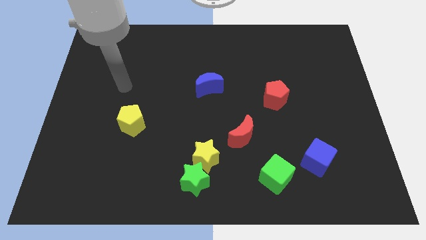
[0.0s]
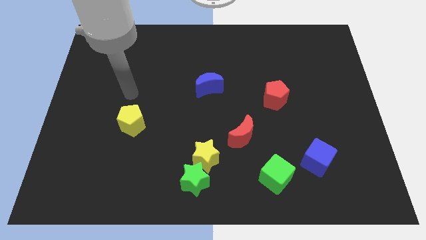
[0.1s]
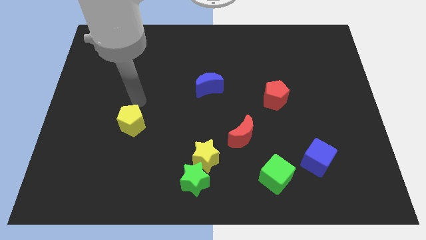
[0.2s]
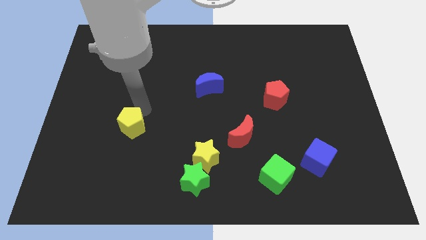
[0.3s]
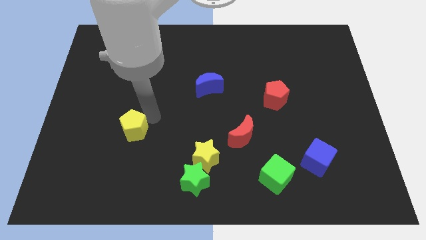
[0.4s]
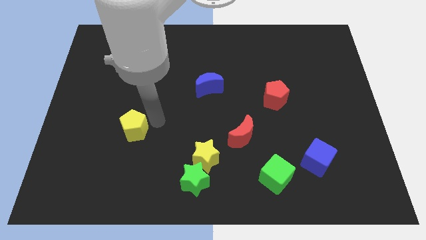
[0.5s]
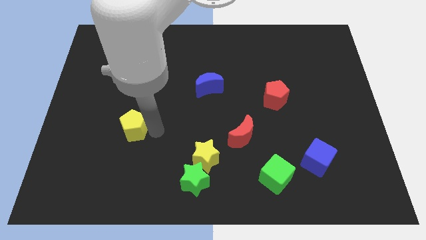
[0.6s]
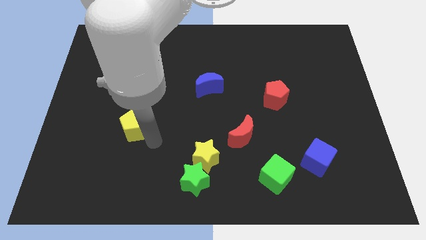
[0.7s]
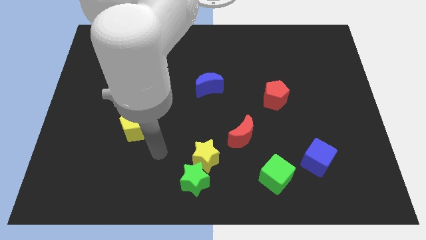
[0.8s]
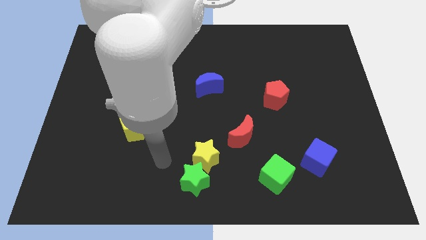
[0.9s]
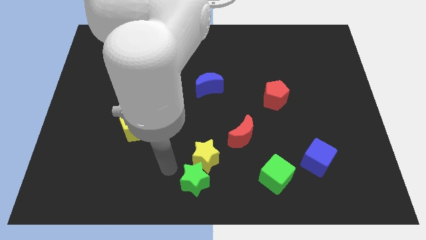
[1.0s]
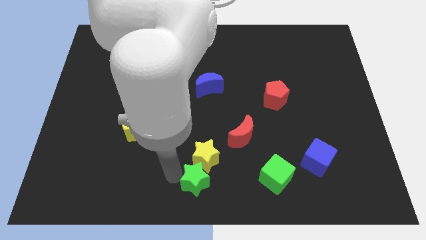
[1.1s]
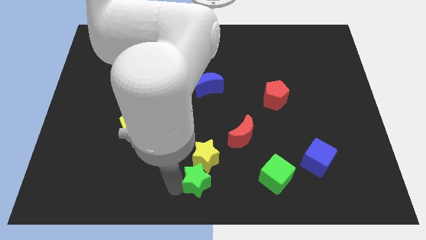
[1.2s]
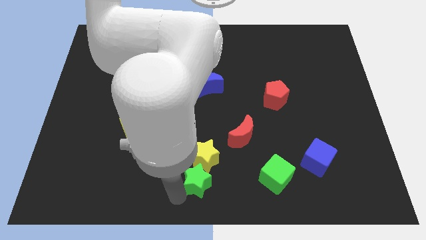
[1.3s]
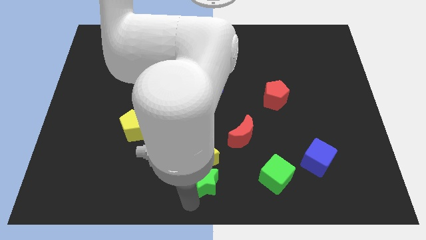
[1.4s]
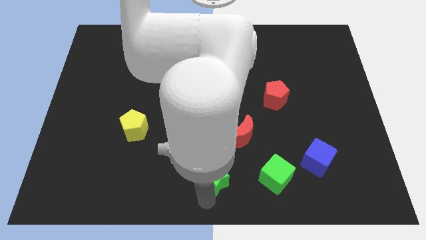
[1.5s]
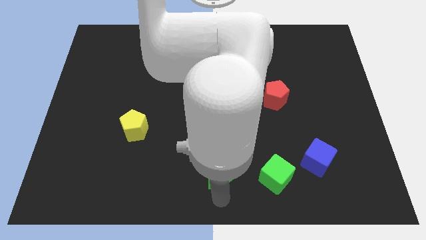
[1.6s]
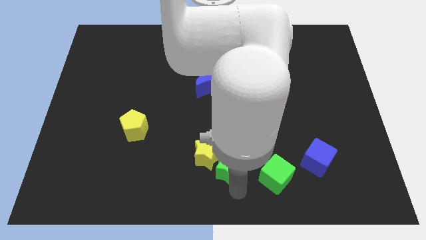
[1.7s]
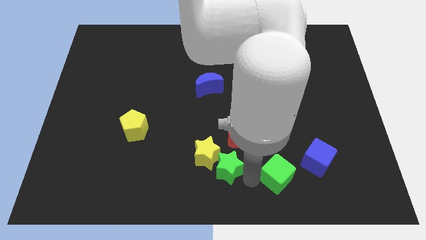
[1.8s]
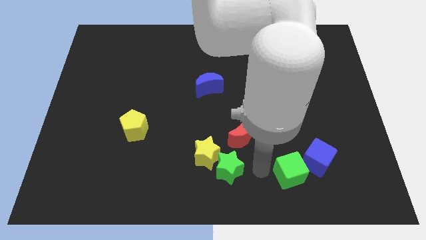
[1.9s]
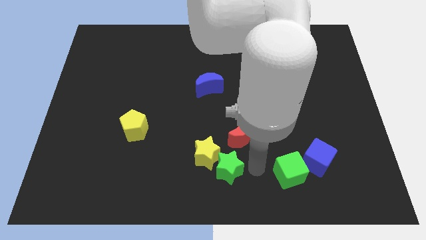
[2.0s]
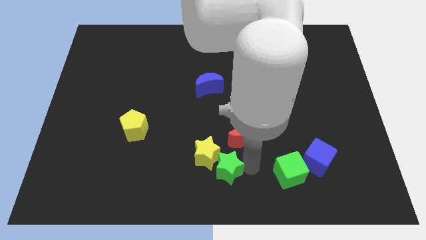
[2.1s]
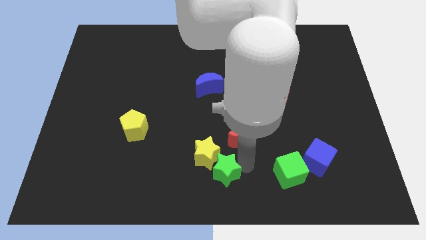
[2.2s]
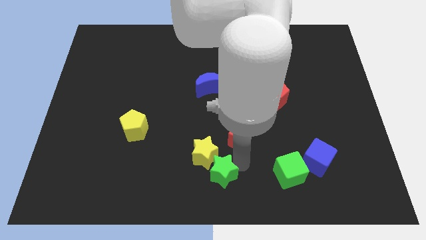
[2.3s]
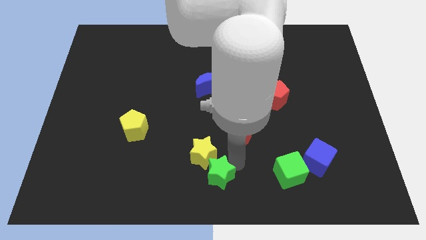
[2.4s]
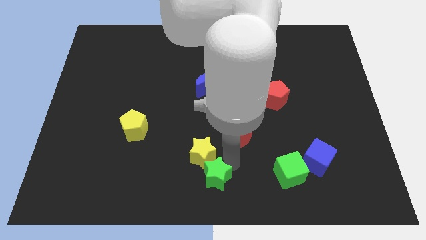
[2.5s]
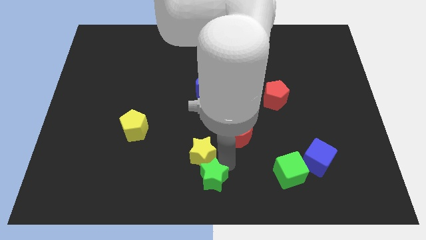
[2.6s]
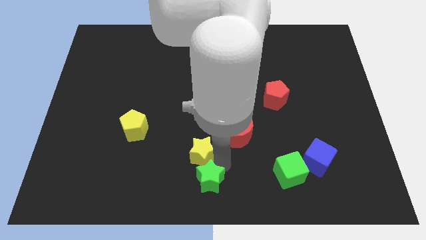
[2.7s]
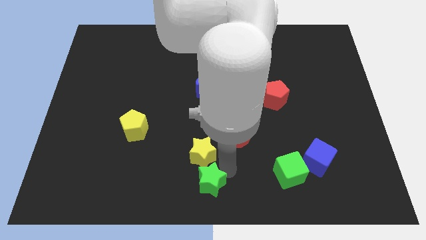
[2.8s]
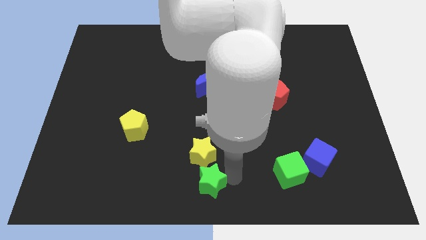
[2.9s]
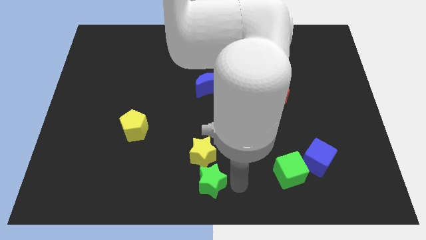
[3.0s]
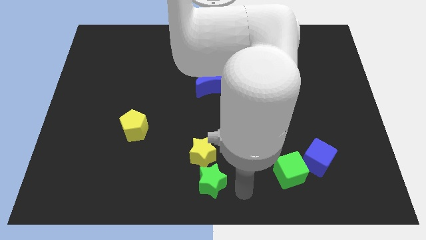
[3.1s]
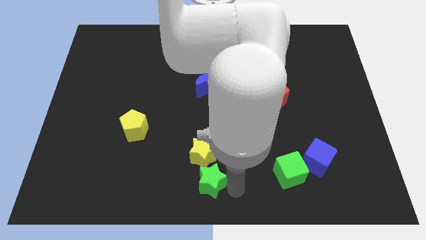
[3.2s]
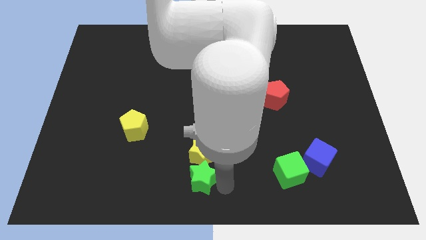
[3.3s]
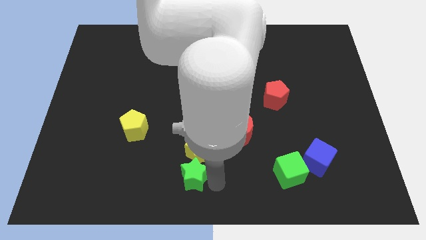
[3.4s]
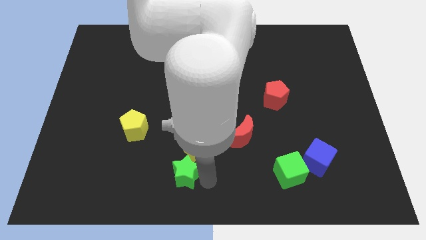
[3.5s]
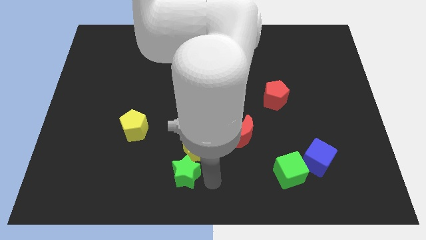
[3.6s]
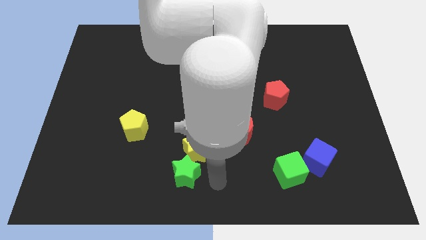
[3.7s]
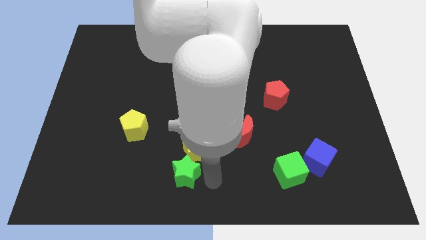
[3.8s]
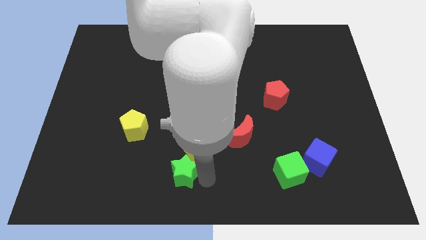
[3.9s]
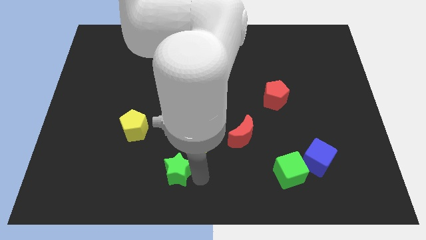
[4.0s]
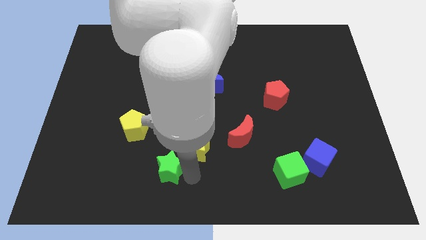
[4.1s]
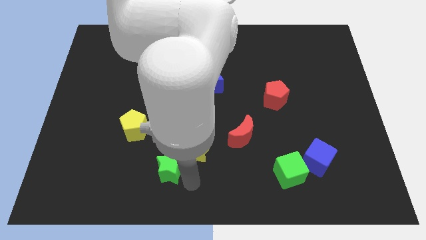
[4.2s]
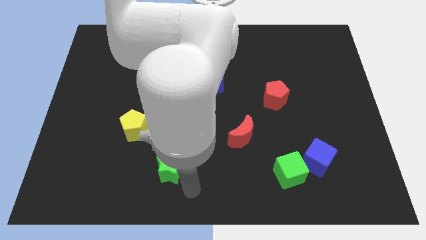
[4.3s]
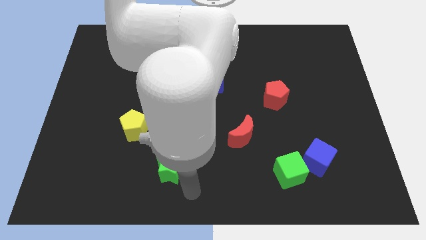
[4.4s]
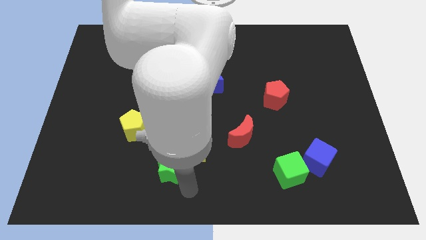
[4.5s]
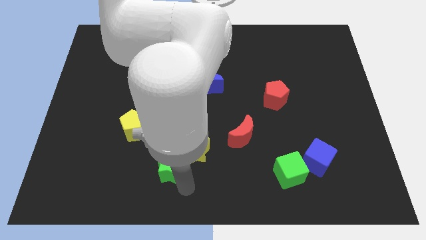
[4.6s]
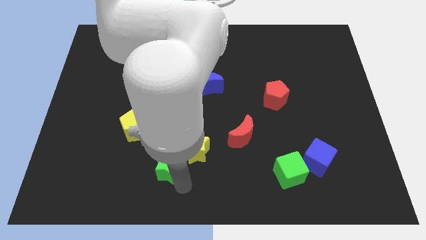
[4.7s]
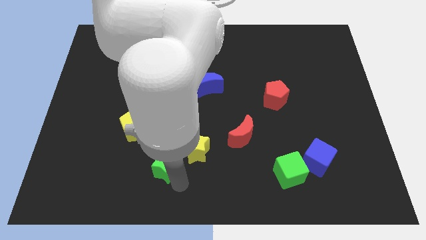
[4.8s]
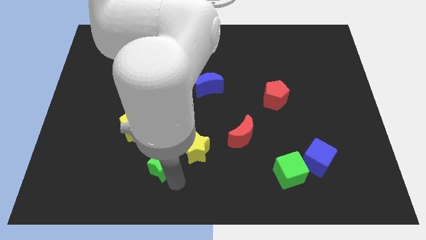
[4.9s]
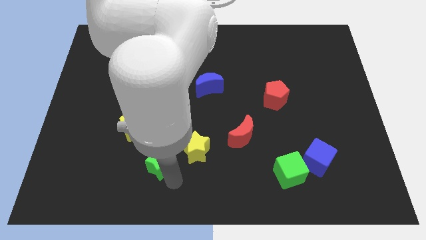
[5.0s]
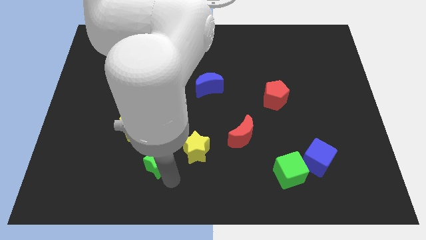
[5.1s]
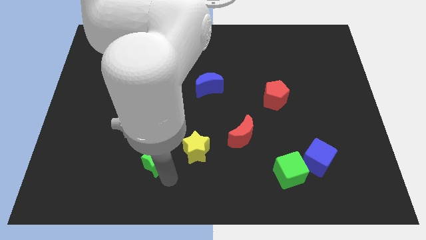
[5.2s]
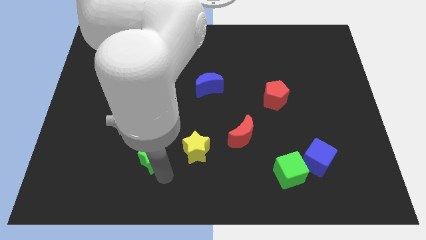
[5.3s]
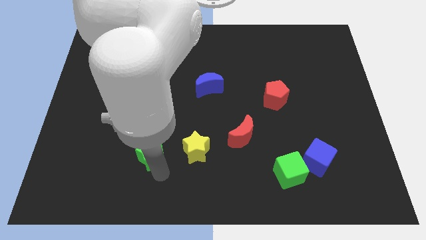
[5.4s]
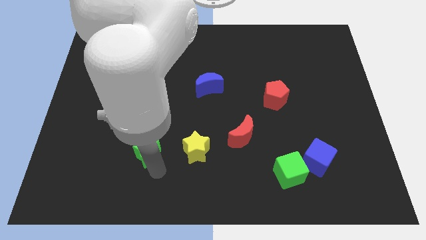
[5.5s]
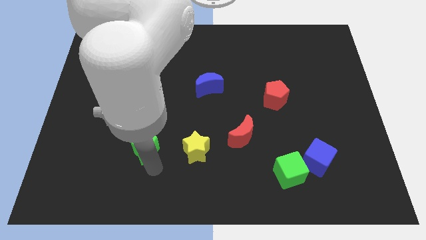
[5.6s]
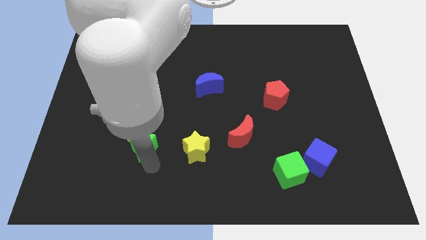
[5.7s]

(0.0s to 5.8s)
slide the green star to the yellow pentagon

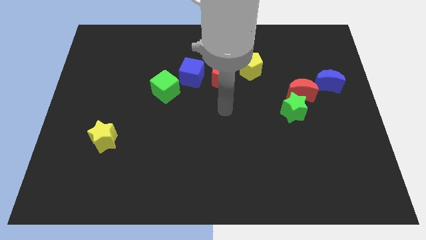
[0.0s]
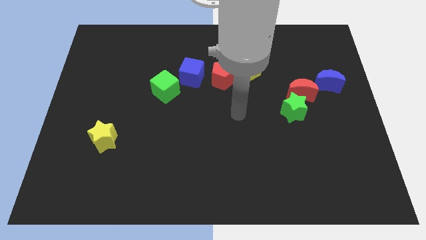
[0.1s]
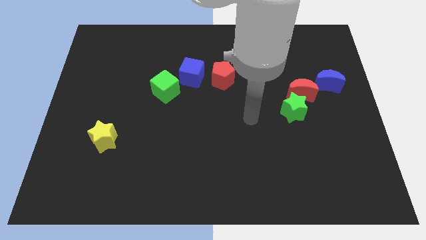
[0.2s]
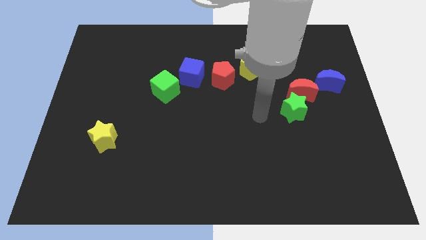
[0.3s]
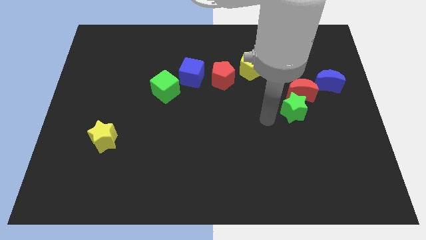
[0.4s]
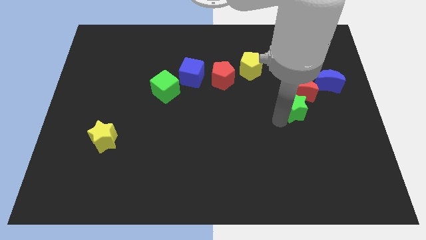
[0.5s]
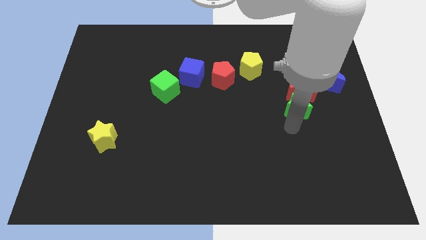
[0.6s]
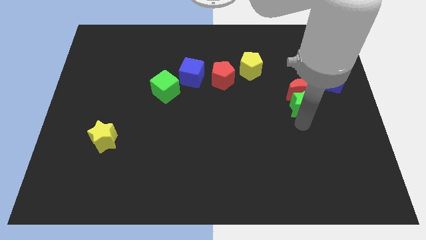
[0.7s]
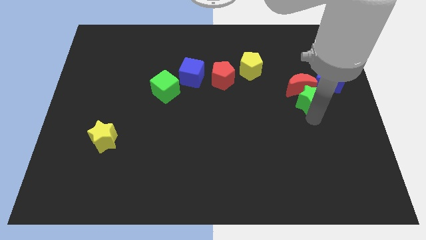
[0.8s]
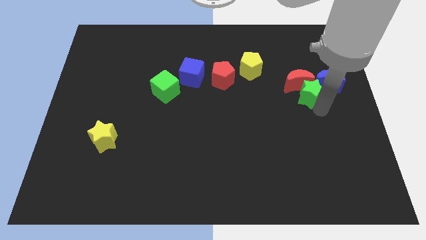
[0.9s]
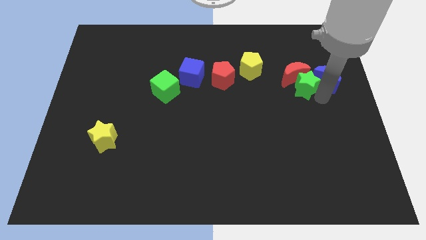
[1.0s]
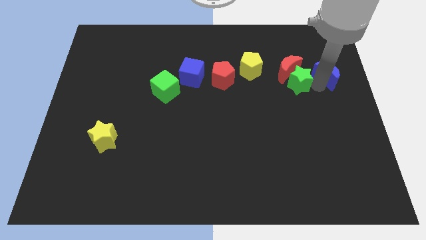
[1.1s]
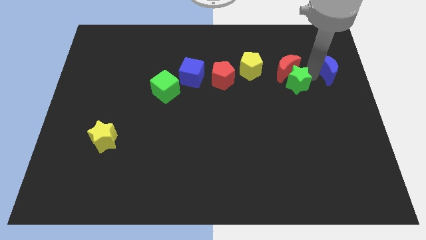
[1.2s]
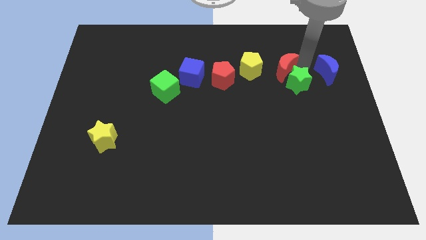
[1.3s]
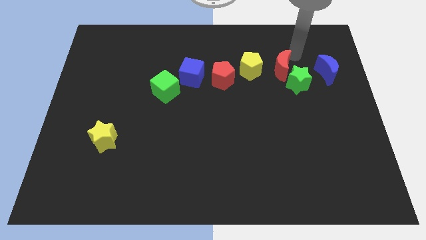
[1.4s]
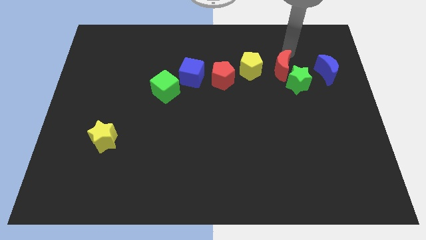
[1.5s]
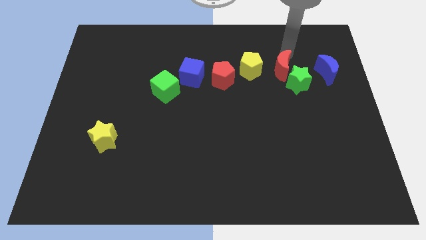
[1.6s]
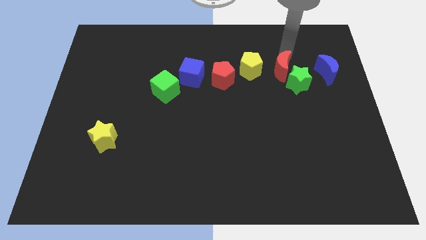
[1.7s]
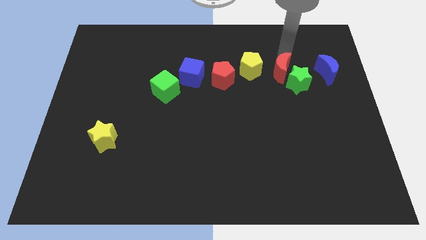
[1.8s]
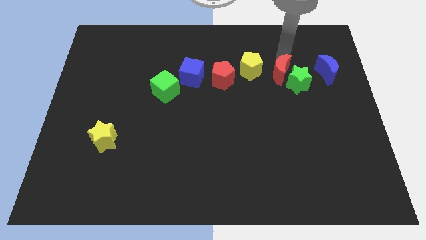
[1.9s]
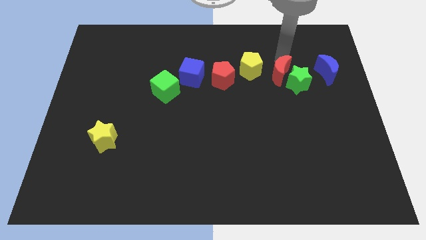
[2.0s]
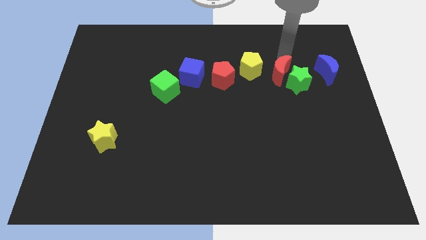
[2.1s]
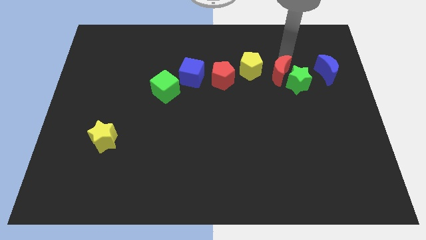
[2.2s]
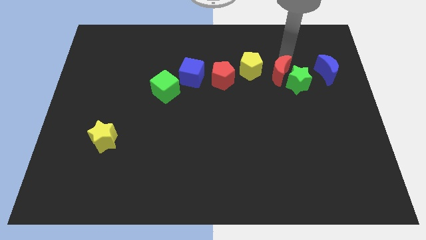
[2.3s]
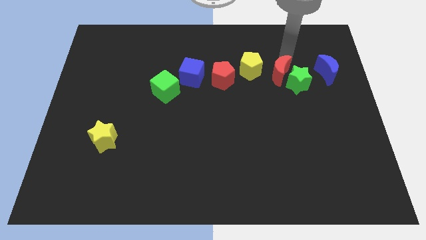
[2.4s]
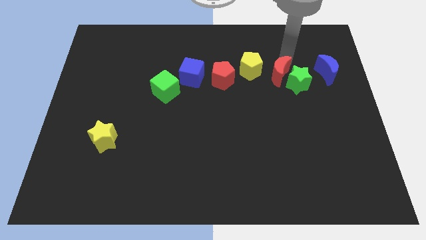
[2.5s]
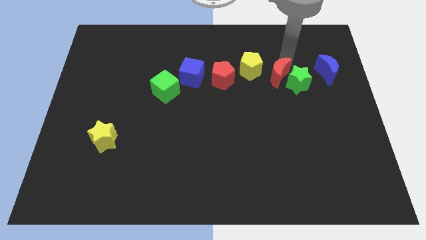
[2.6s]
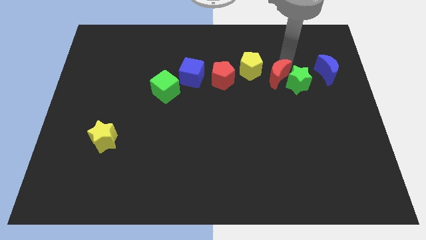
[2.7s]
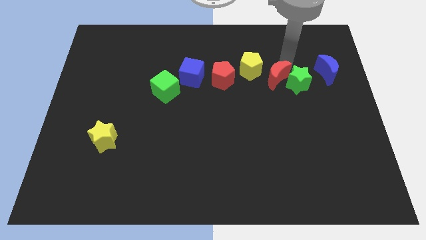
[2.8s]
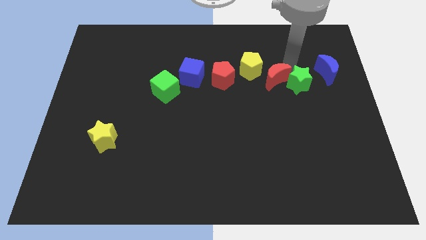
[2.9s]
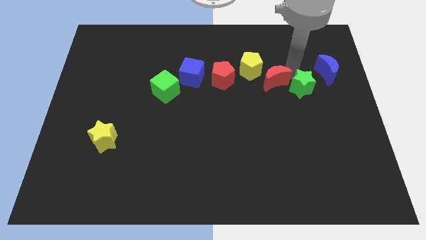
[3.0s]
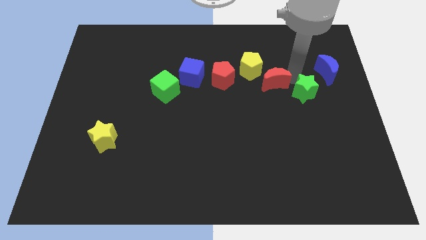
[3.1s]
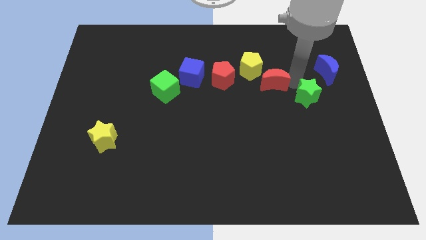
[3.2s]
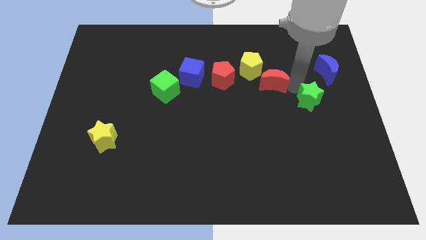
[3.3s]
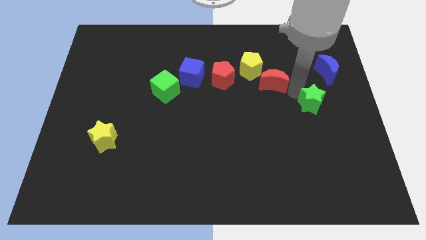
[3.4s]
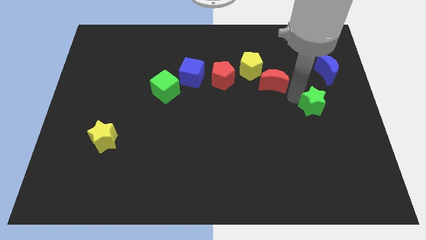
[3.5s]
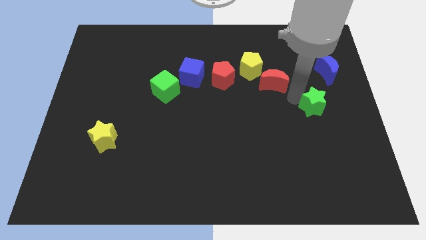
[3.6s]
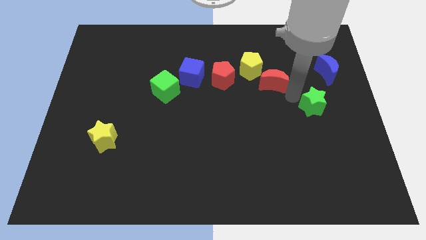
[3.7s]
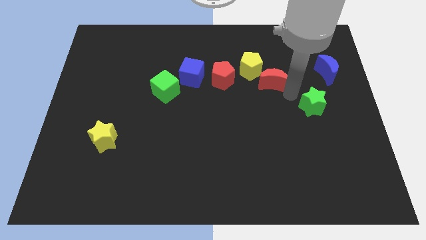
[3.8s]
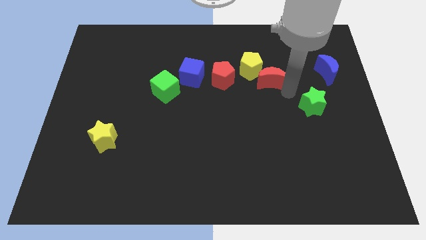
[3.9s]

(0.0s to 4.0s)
move the red moon towards the yellow pentagon
